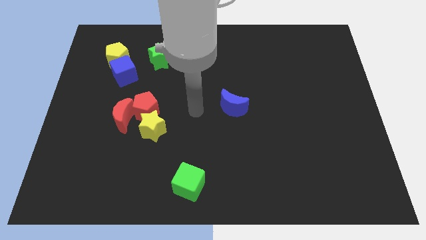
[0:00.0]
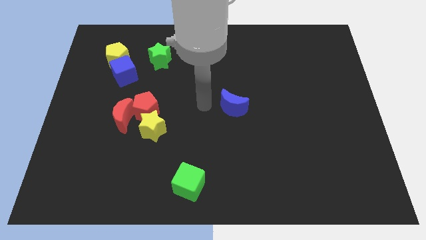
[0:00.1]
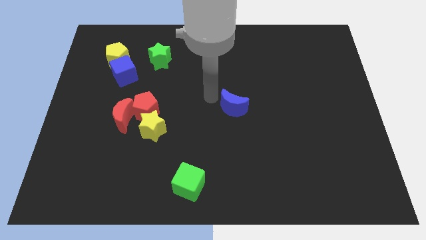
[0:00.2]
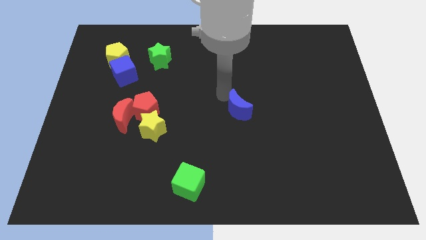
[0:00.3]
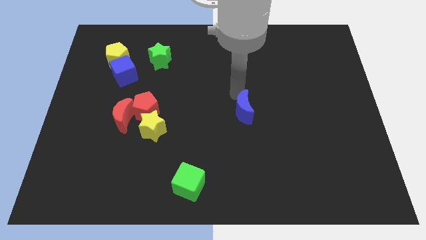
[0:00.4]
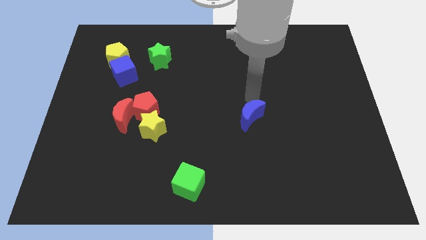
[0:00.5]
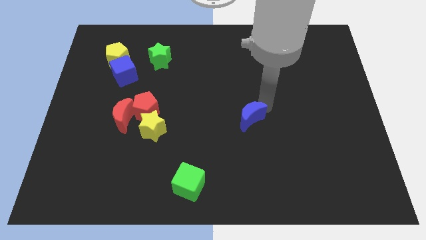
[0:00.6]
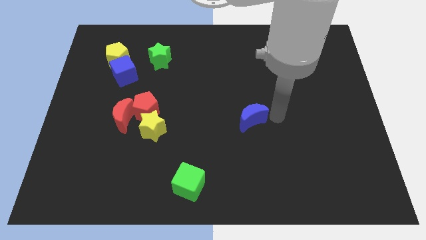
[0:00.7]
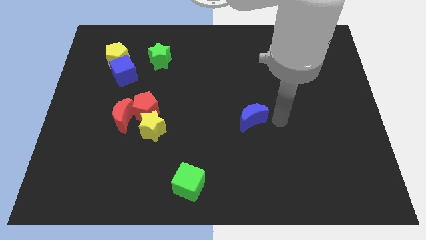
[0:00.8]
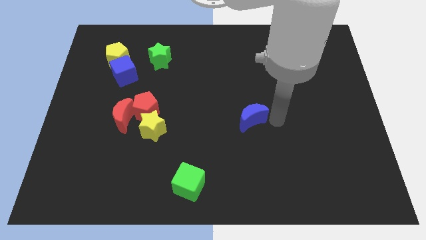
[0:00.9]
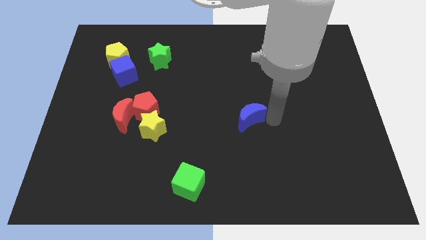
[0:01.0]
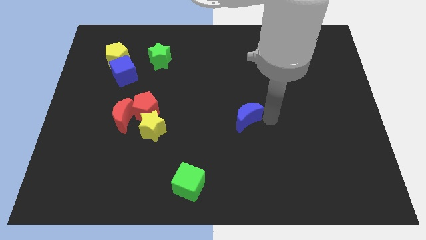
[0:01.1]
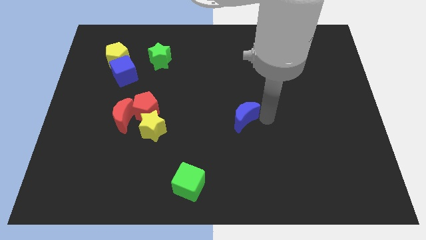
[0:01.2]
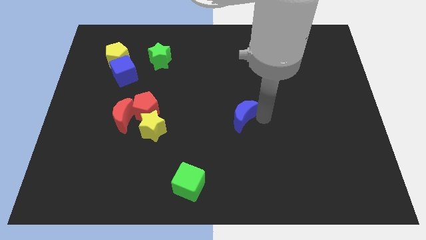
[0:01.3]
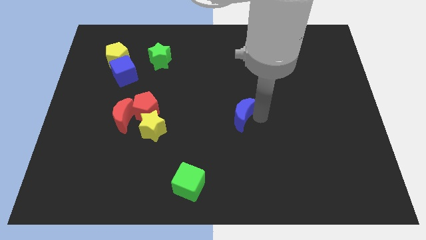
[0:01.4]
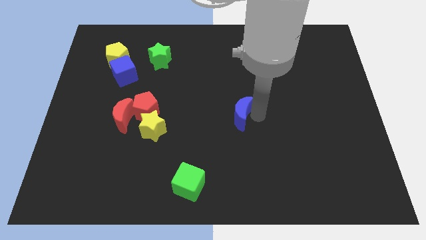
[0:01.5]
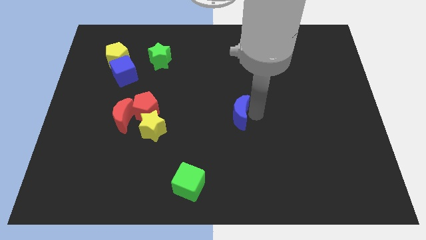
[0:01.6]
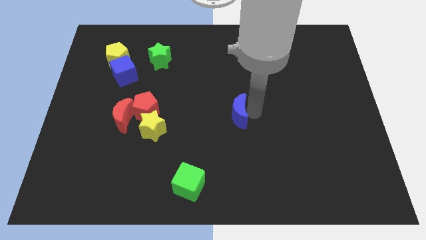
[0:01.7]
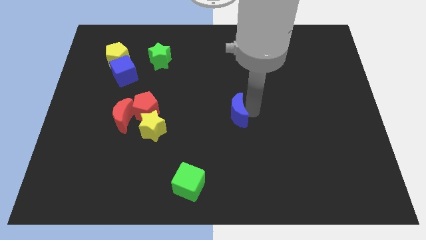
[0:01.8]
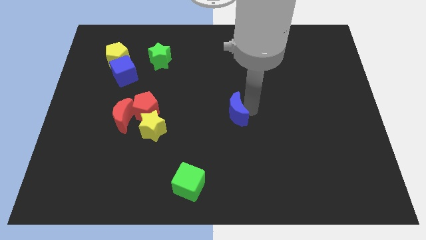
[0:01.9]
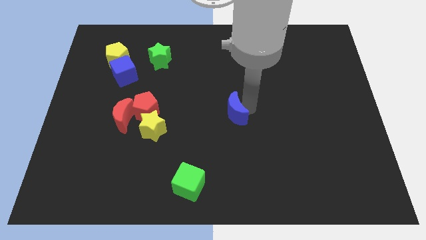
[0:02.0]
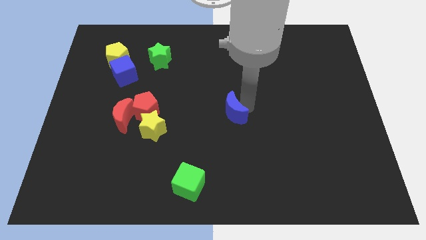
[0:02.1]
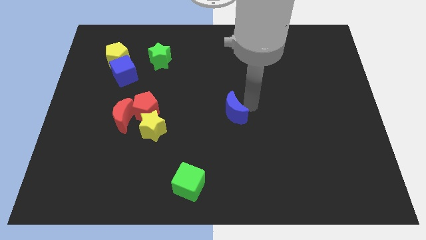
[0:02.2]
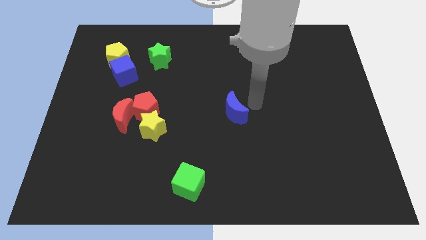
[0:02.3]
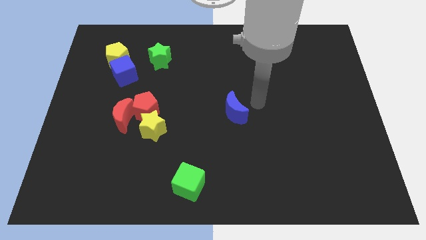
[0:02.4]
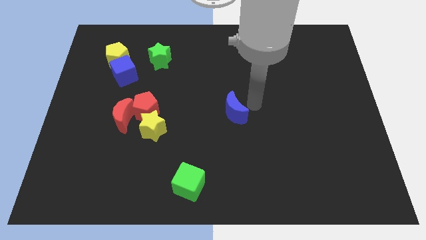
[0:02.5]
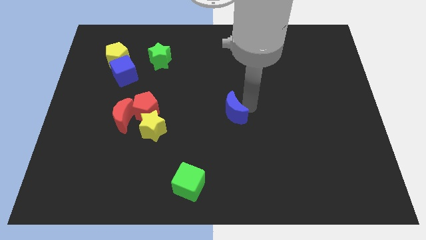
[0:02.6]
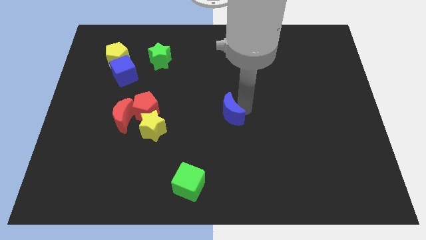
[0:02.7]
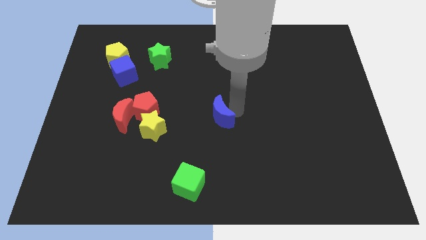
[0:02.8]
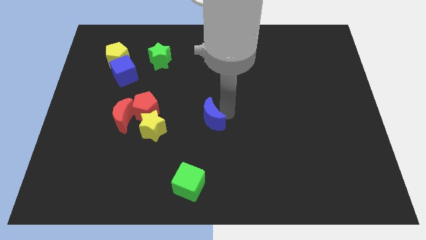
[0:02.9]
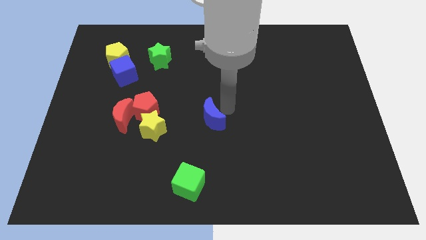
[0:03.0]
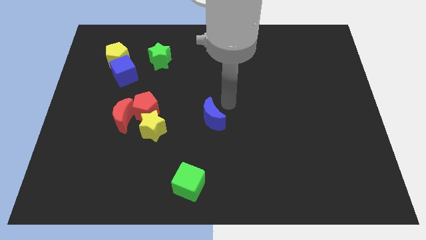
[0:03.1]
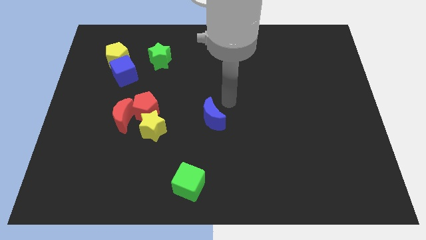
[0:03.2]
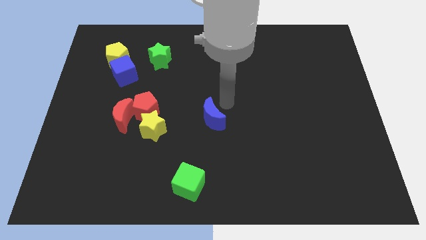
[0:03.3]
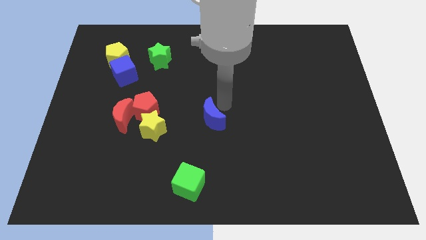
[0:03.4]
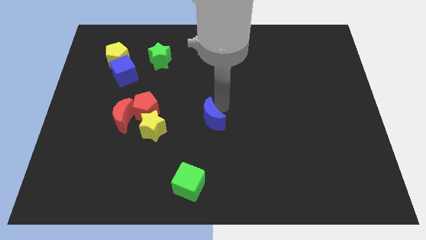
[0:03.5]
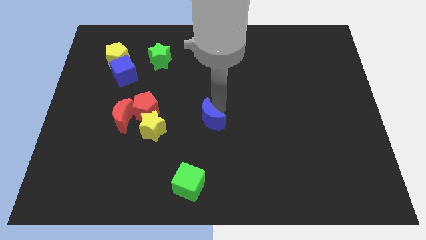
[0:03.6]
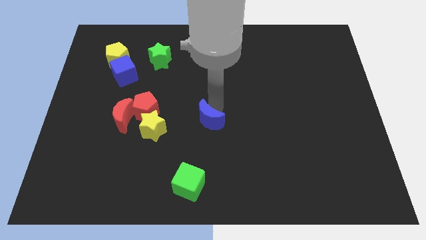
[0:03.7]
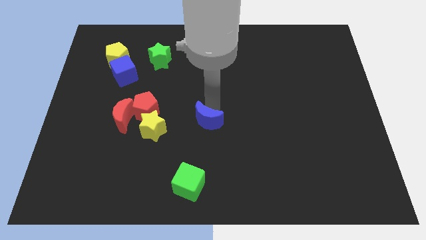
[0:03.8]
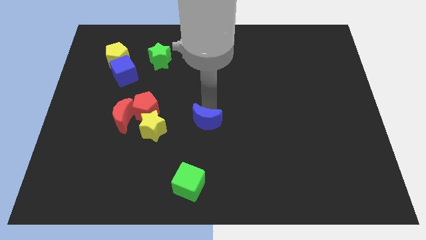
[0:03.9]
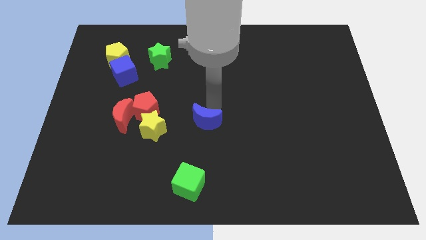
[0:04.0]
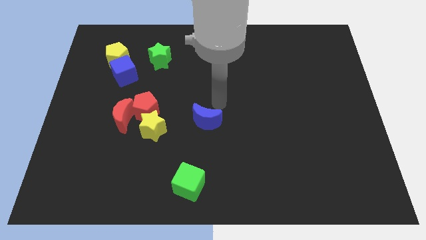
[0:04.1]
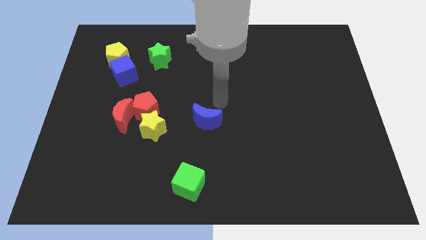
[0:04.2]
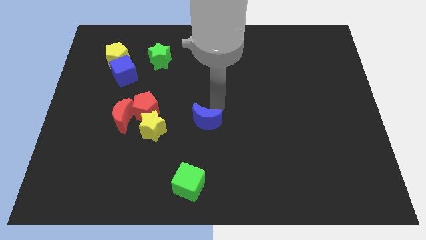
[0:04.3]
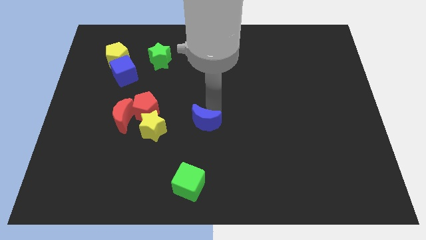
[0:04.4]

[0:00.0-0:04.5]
push the blue moon to the top of the green cube

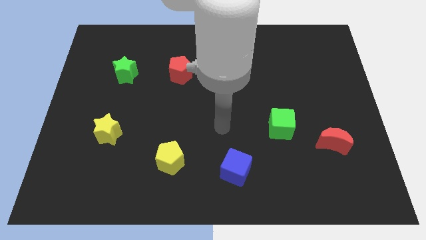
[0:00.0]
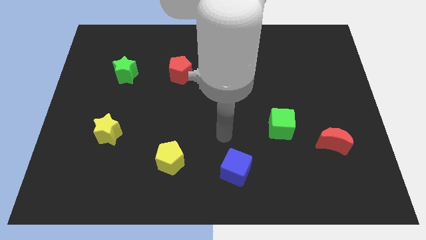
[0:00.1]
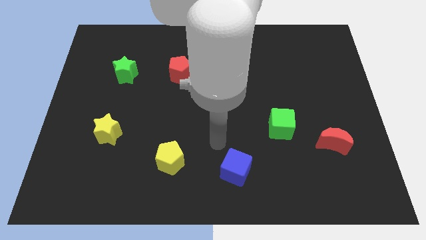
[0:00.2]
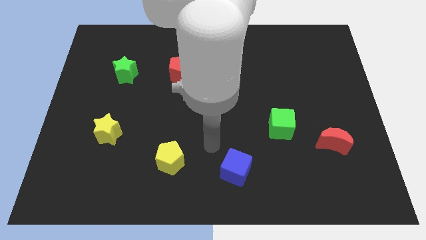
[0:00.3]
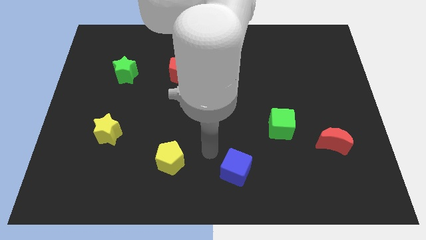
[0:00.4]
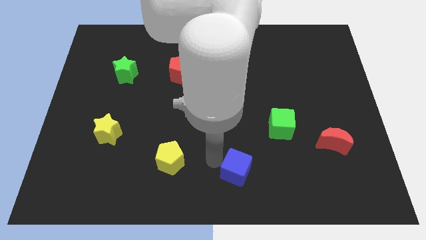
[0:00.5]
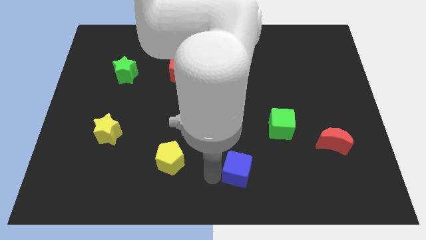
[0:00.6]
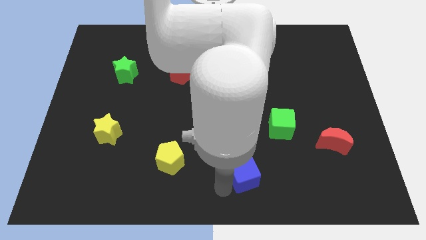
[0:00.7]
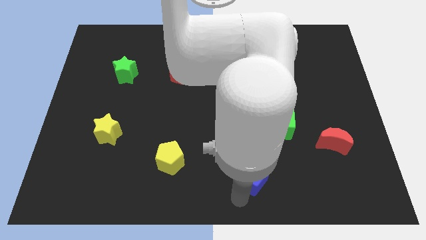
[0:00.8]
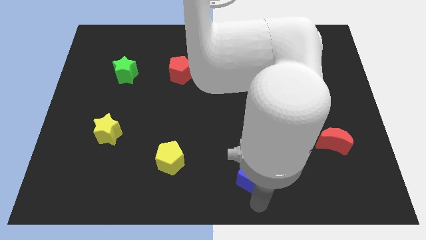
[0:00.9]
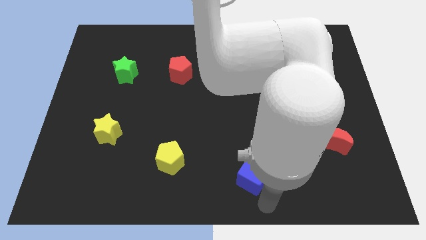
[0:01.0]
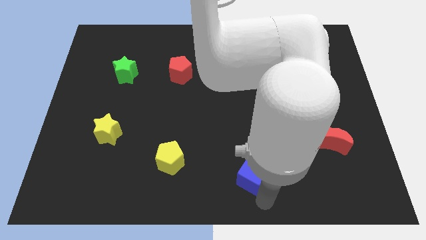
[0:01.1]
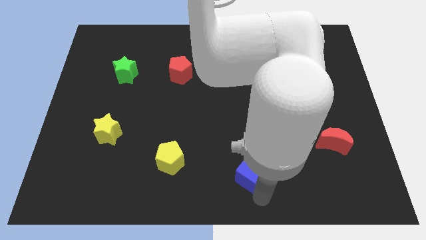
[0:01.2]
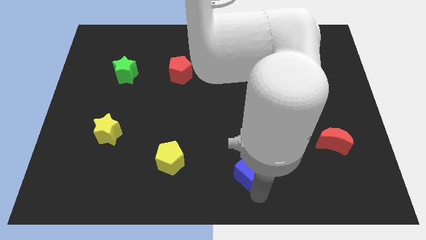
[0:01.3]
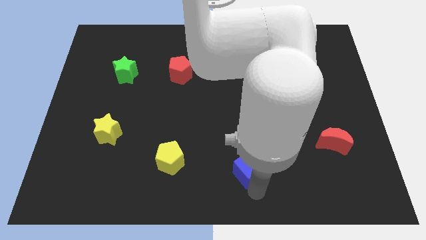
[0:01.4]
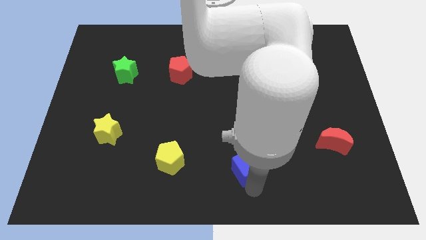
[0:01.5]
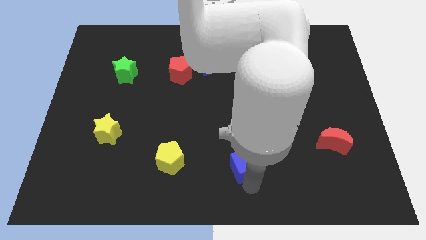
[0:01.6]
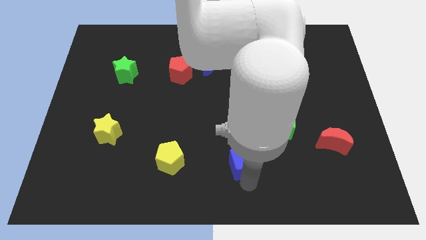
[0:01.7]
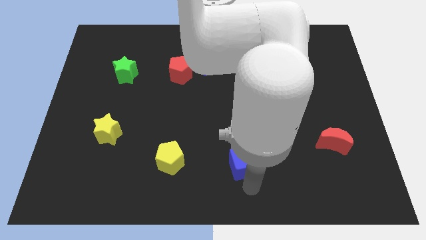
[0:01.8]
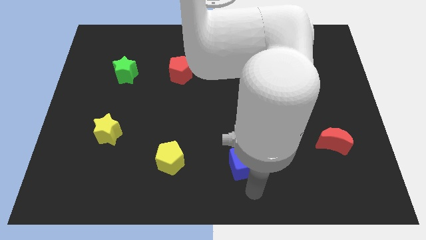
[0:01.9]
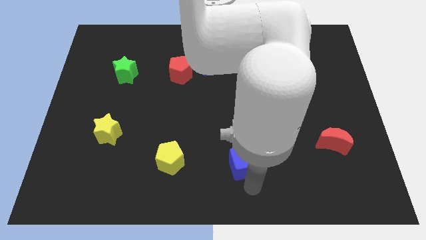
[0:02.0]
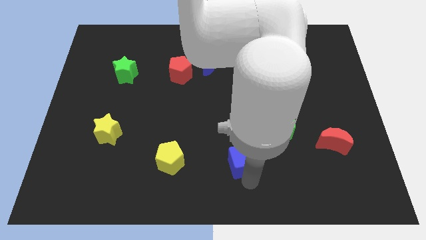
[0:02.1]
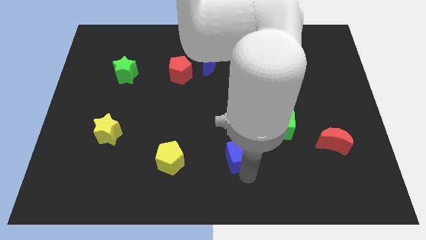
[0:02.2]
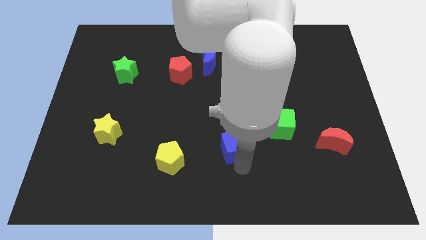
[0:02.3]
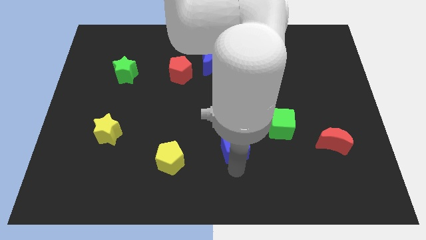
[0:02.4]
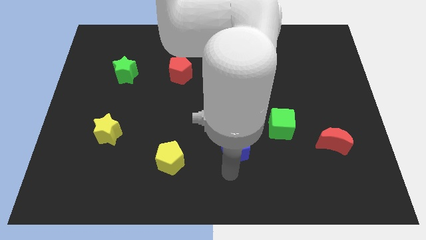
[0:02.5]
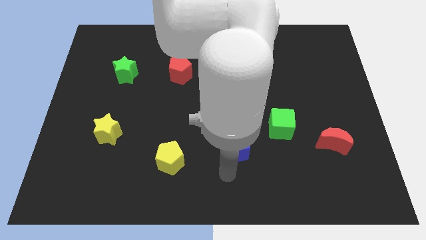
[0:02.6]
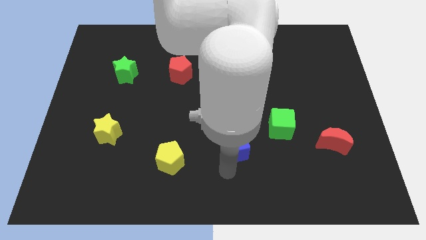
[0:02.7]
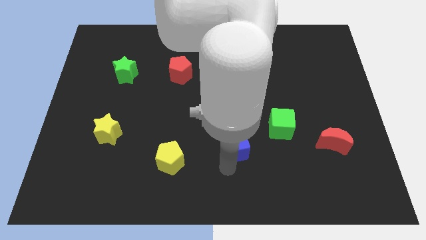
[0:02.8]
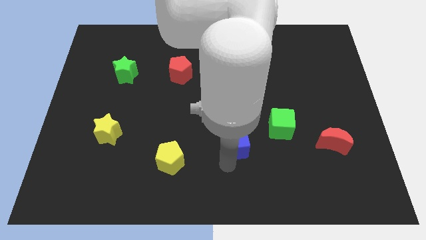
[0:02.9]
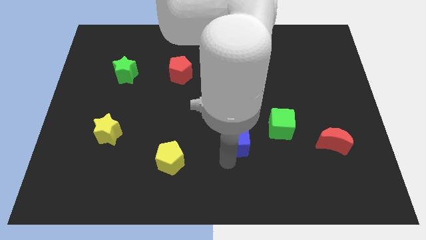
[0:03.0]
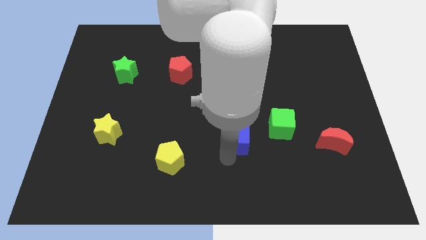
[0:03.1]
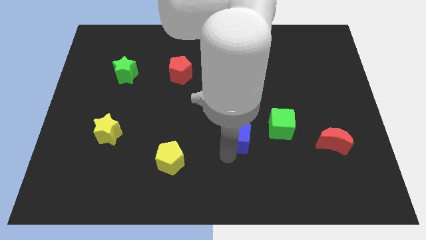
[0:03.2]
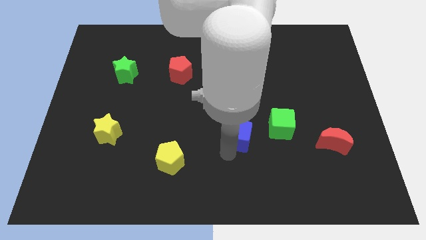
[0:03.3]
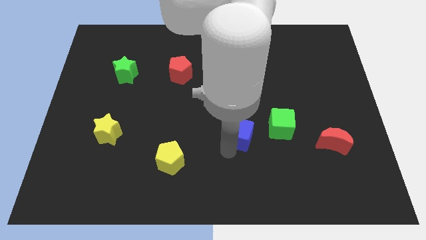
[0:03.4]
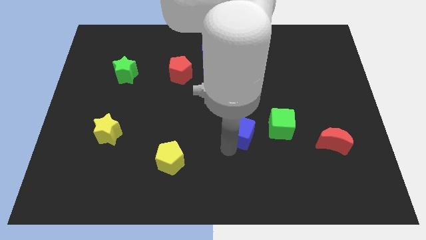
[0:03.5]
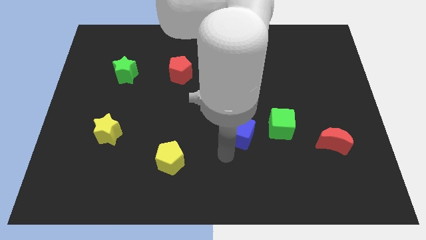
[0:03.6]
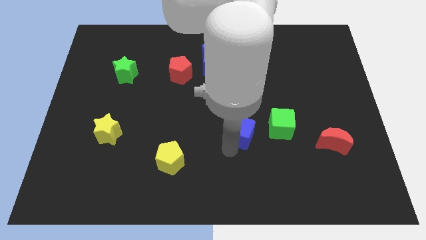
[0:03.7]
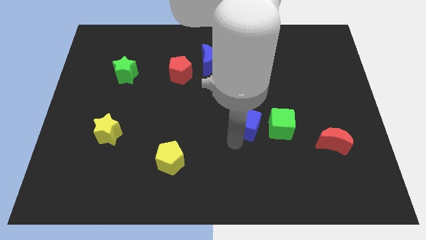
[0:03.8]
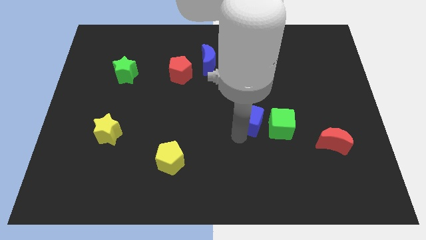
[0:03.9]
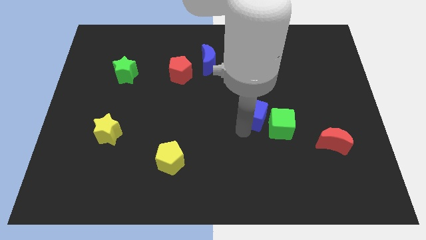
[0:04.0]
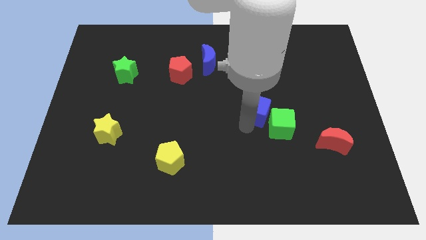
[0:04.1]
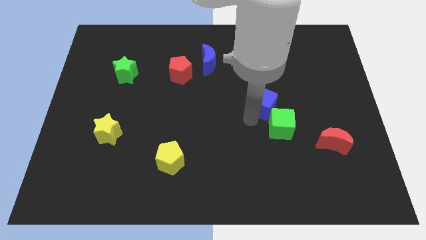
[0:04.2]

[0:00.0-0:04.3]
move the blue cube to the top side of the green cube
